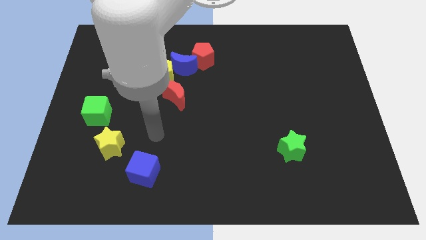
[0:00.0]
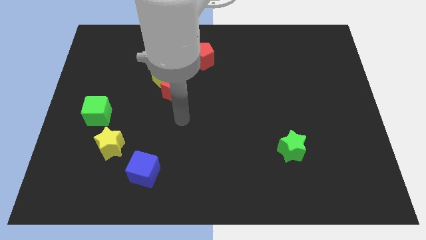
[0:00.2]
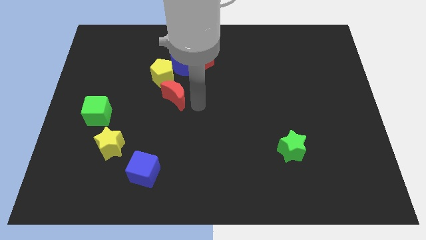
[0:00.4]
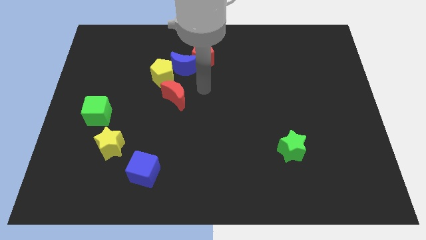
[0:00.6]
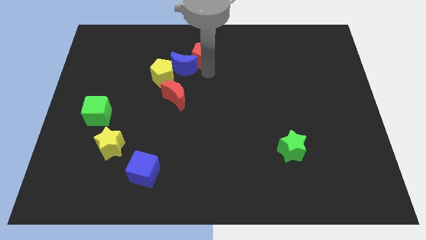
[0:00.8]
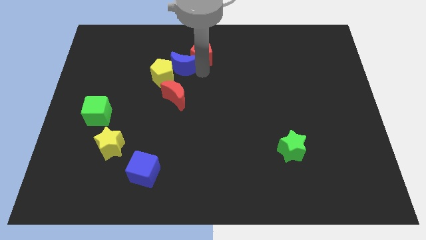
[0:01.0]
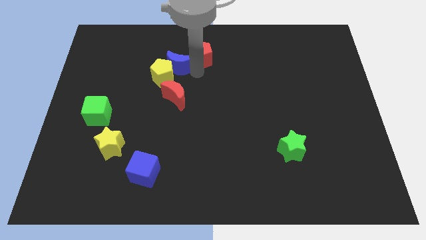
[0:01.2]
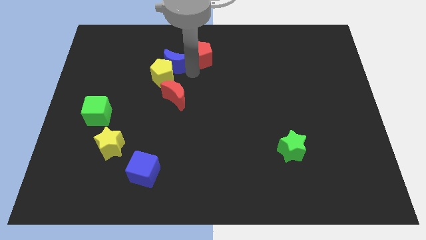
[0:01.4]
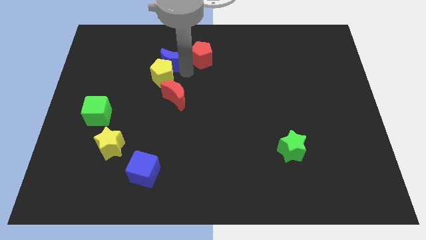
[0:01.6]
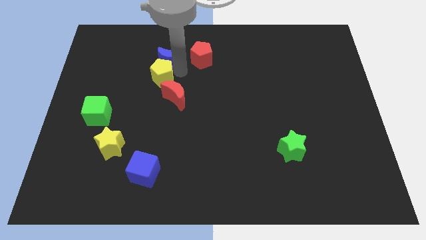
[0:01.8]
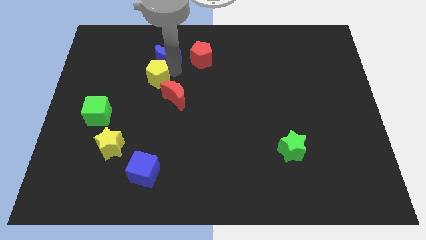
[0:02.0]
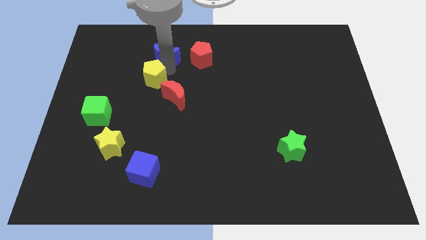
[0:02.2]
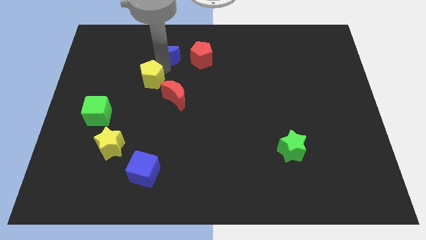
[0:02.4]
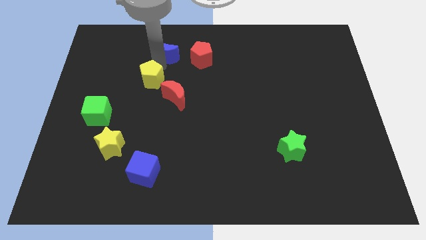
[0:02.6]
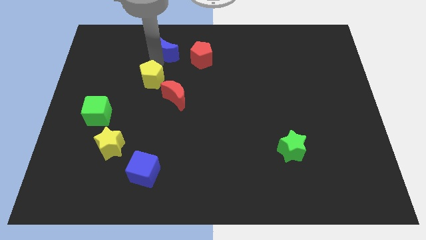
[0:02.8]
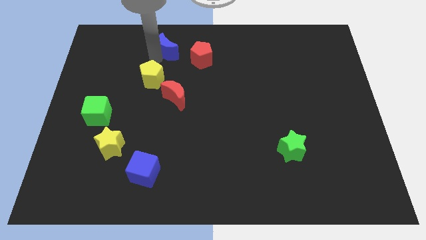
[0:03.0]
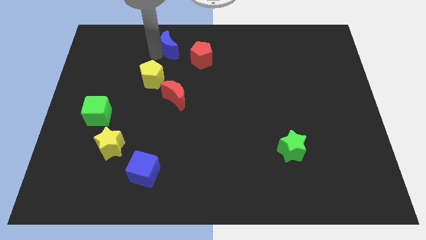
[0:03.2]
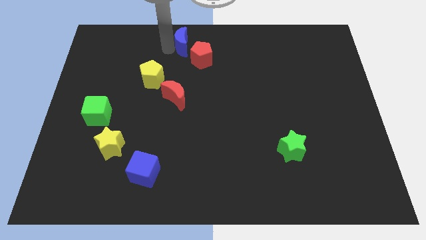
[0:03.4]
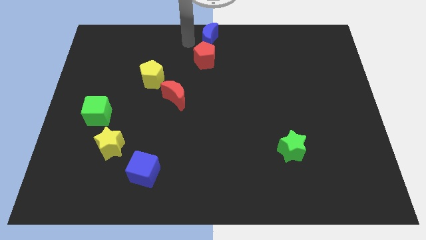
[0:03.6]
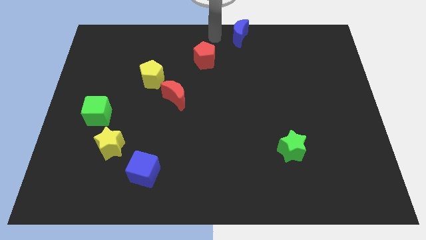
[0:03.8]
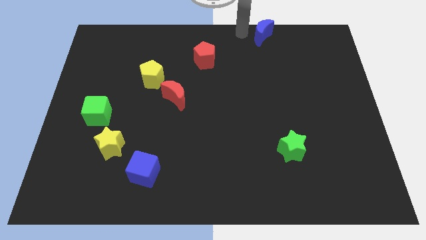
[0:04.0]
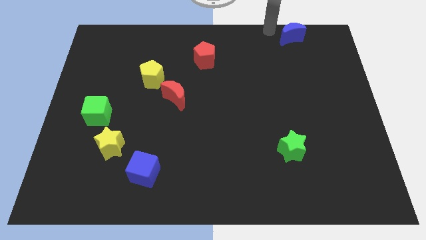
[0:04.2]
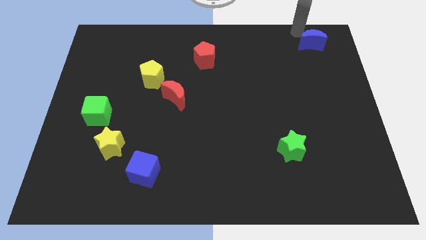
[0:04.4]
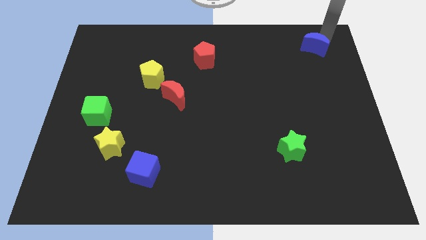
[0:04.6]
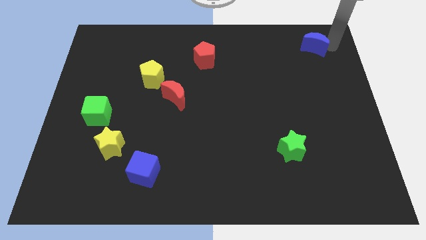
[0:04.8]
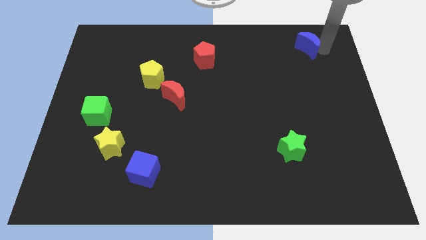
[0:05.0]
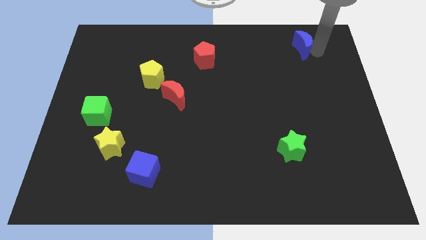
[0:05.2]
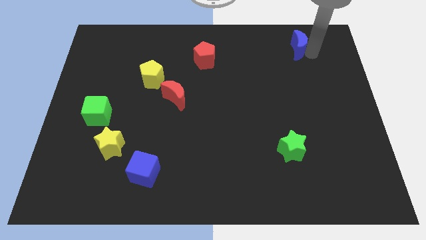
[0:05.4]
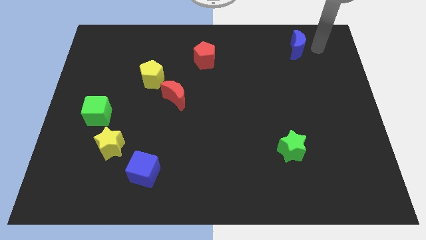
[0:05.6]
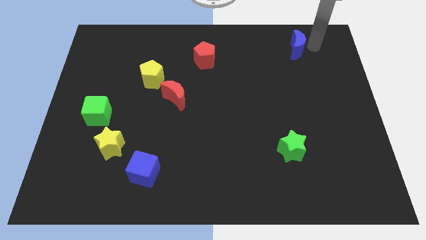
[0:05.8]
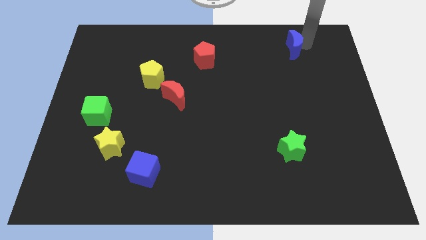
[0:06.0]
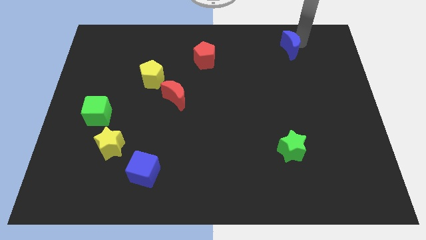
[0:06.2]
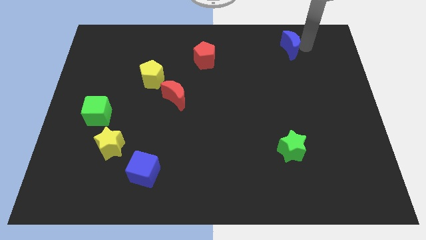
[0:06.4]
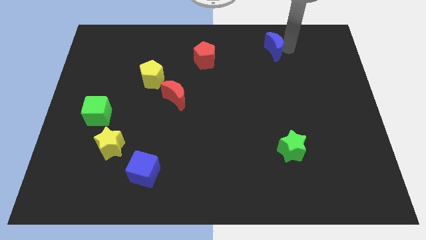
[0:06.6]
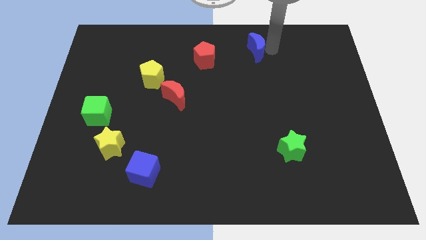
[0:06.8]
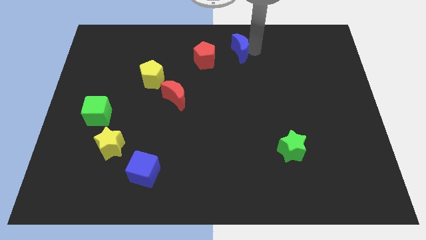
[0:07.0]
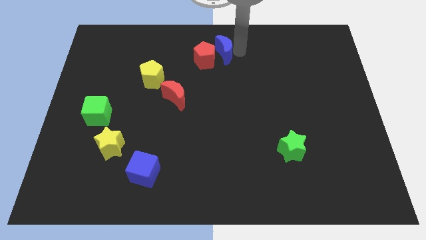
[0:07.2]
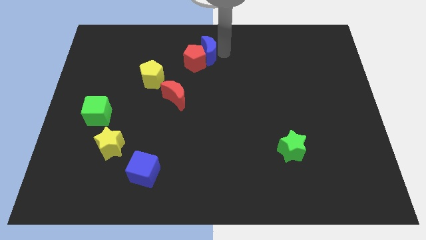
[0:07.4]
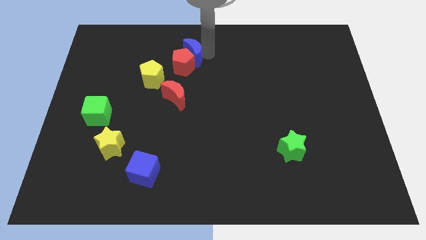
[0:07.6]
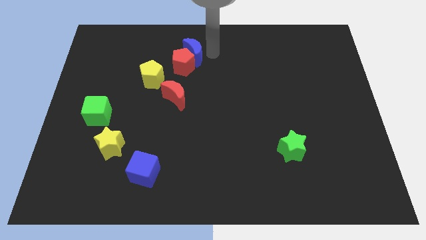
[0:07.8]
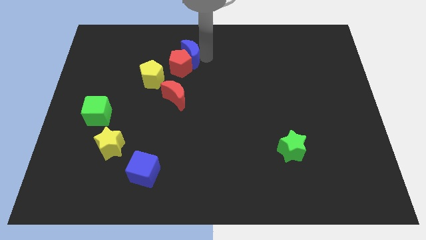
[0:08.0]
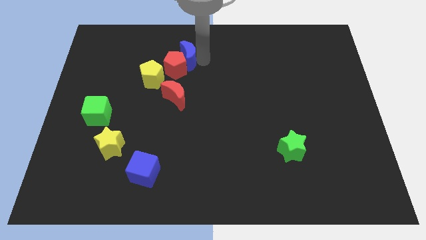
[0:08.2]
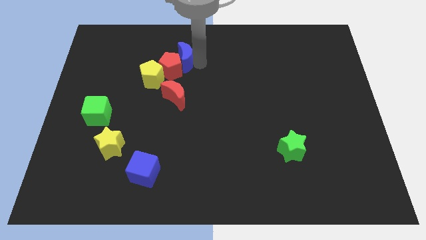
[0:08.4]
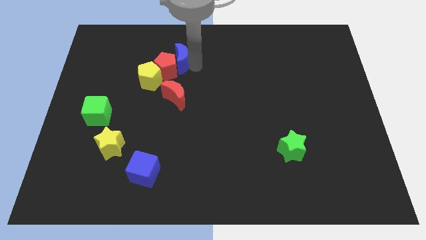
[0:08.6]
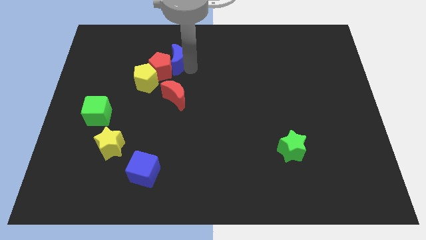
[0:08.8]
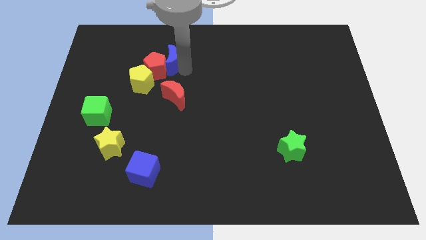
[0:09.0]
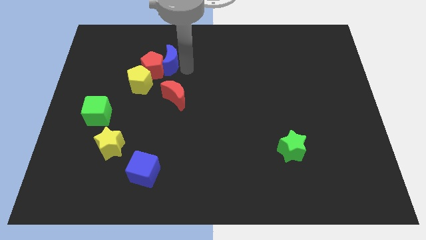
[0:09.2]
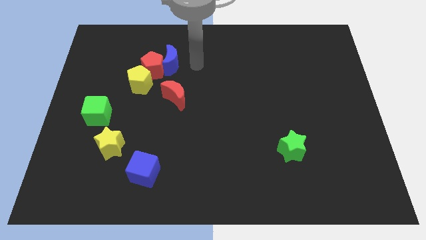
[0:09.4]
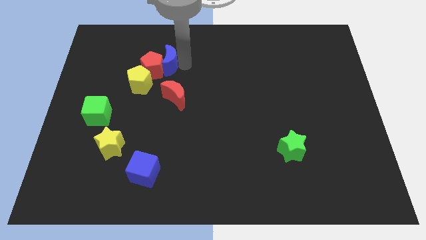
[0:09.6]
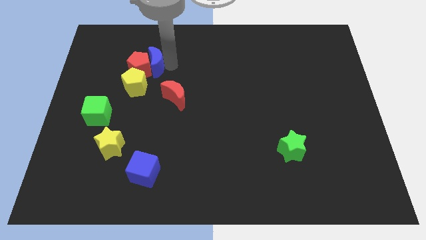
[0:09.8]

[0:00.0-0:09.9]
move the blue moon to the left a bit

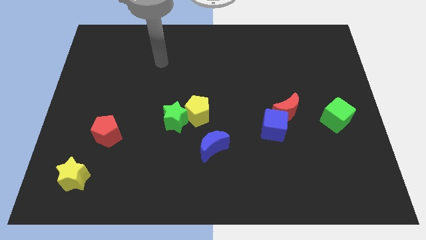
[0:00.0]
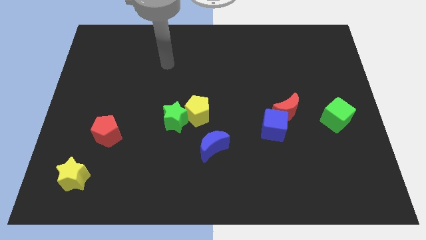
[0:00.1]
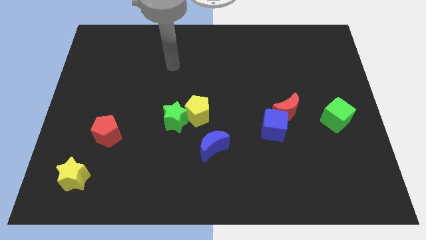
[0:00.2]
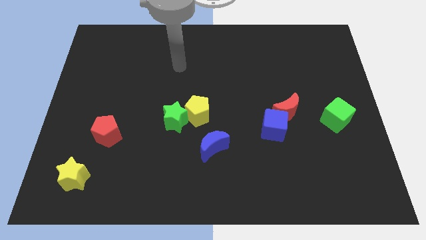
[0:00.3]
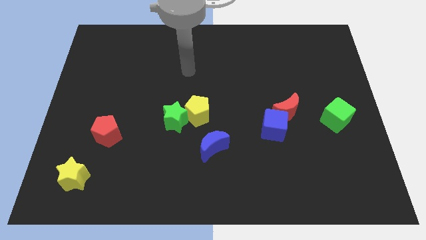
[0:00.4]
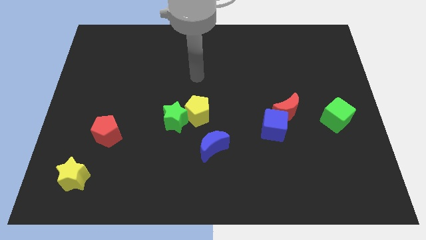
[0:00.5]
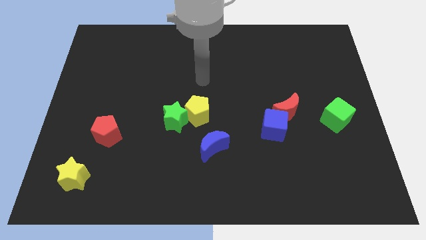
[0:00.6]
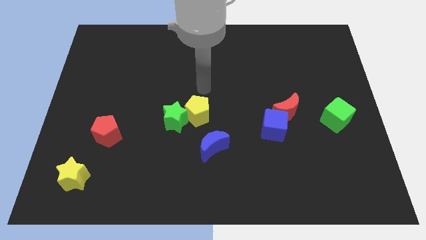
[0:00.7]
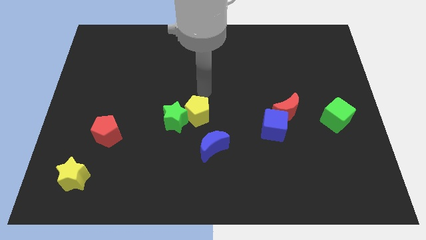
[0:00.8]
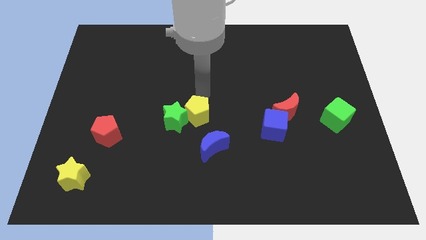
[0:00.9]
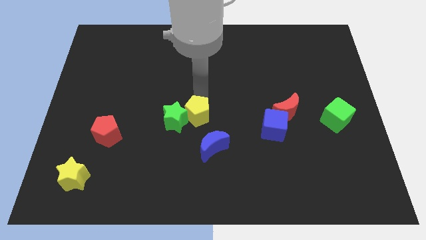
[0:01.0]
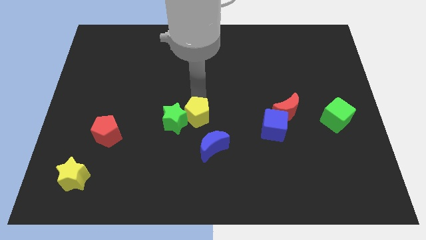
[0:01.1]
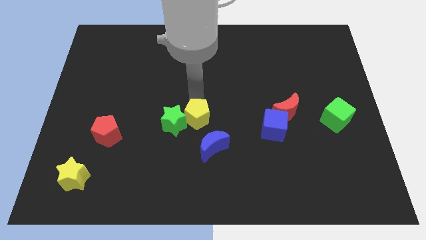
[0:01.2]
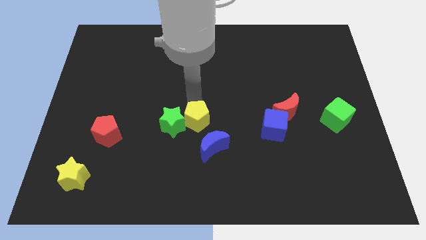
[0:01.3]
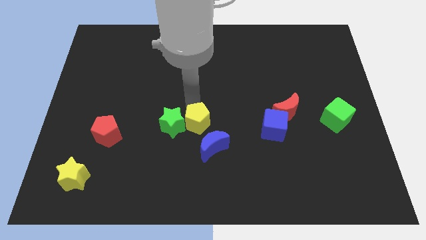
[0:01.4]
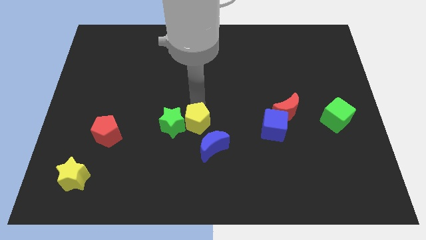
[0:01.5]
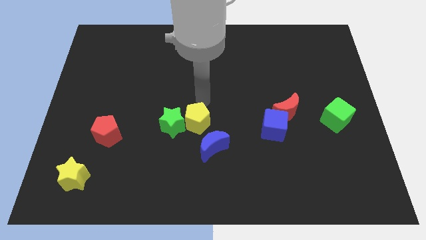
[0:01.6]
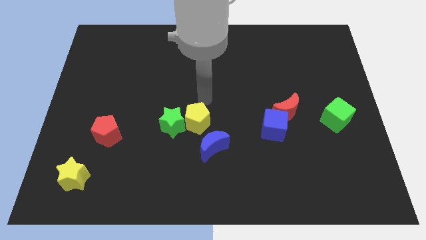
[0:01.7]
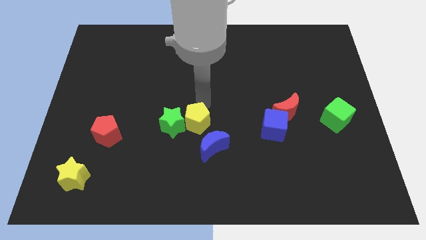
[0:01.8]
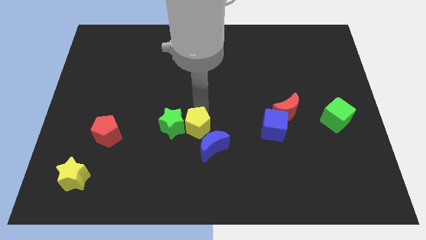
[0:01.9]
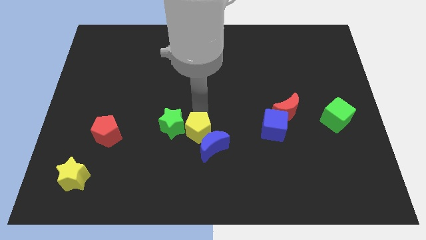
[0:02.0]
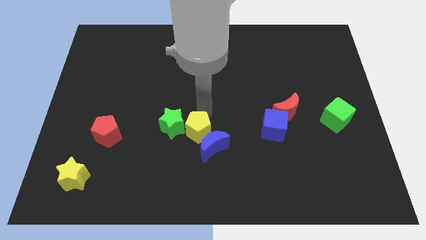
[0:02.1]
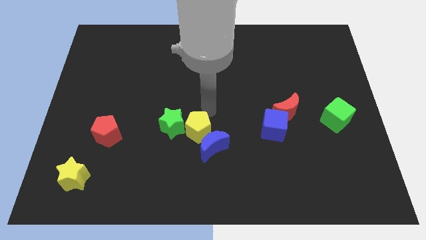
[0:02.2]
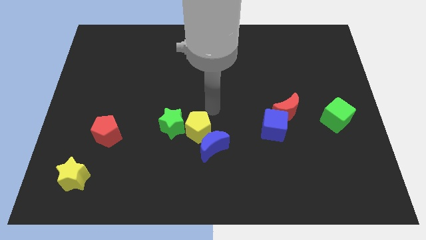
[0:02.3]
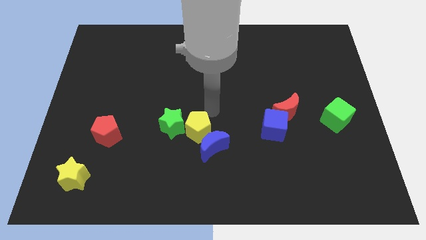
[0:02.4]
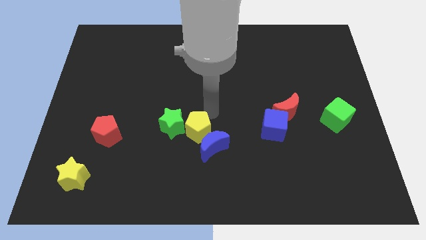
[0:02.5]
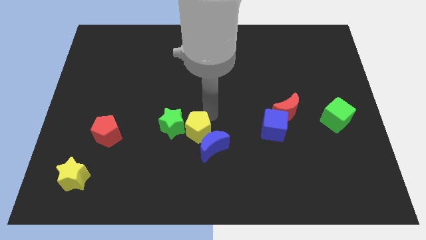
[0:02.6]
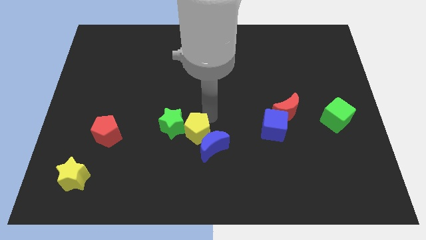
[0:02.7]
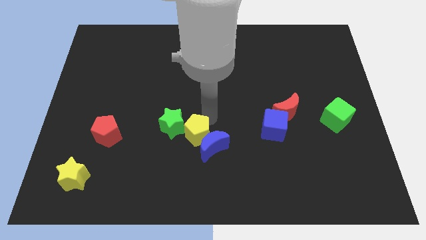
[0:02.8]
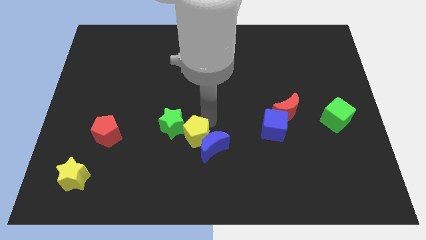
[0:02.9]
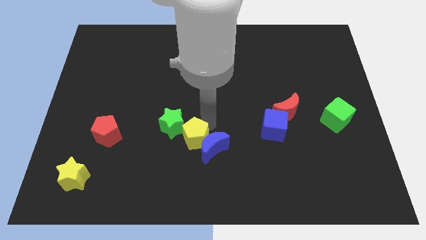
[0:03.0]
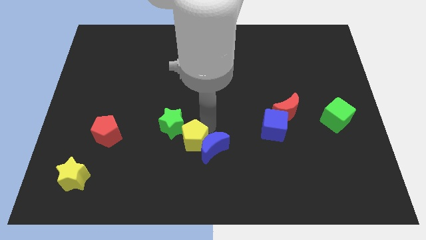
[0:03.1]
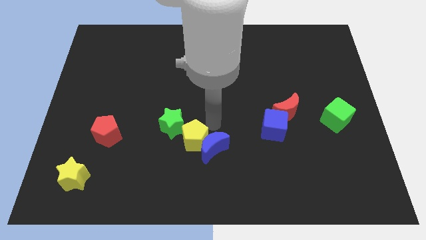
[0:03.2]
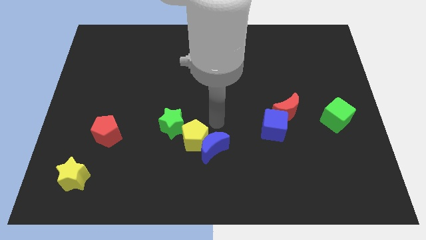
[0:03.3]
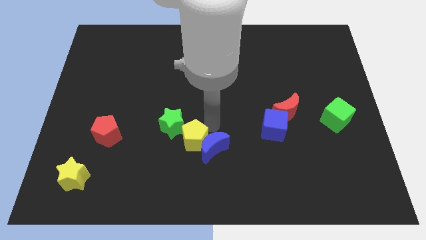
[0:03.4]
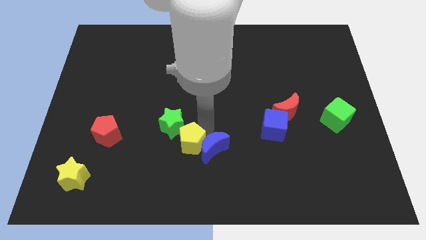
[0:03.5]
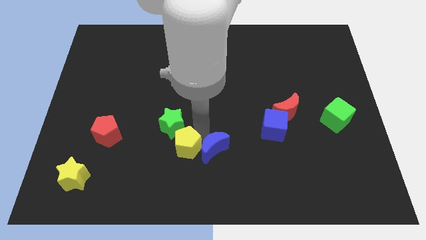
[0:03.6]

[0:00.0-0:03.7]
move the yellow pentagon a little downwards and left diagonally
